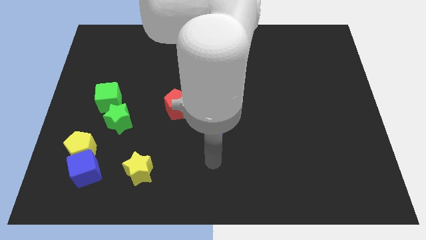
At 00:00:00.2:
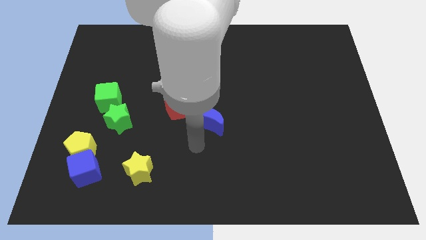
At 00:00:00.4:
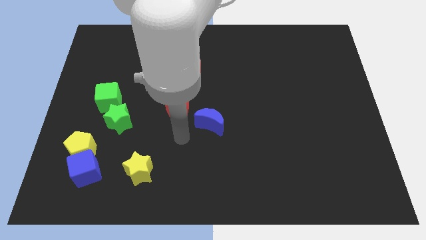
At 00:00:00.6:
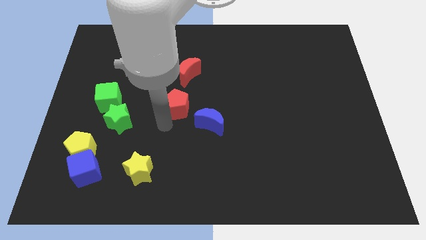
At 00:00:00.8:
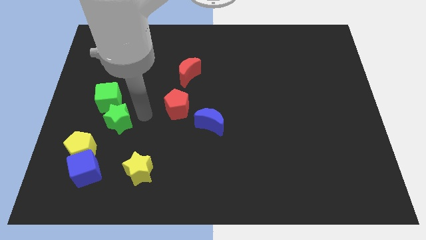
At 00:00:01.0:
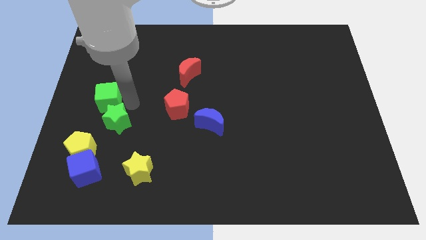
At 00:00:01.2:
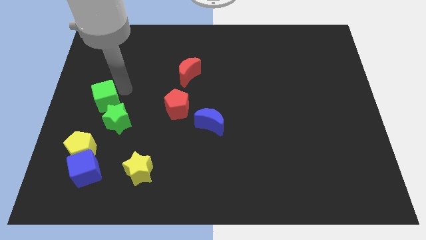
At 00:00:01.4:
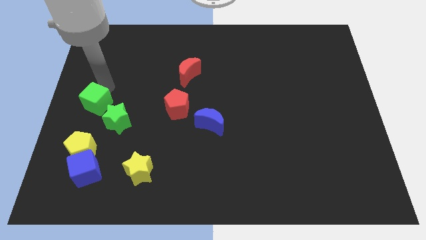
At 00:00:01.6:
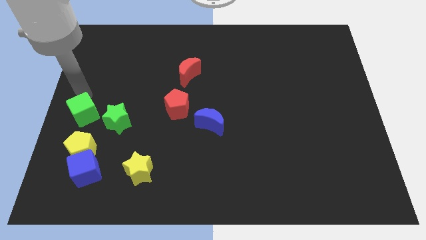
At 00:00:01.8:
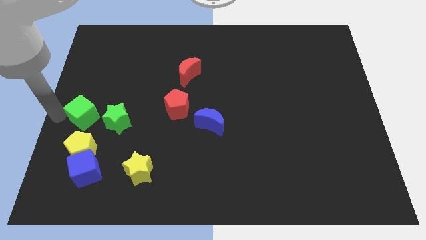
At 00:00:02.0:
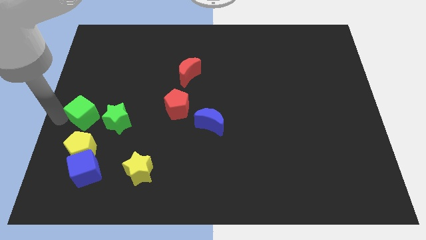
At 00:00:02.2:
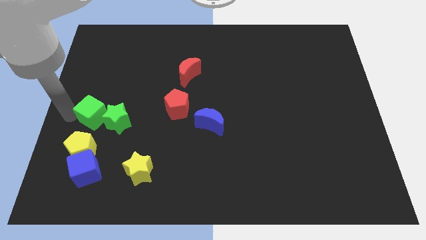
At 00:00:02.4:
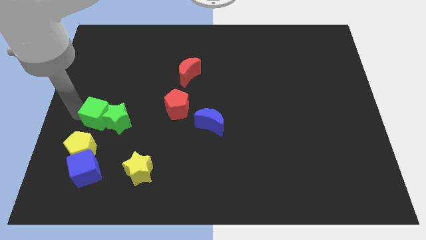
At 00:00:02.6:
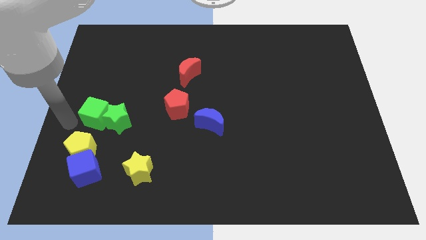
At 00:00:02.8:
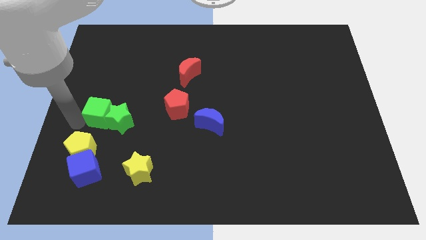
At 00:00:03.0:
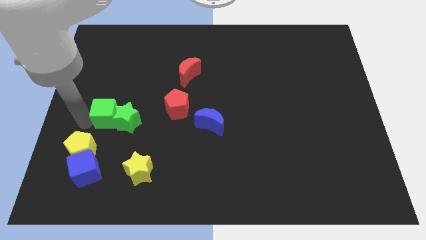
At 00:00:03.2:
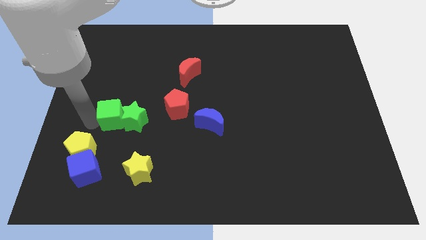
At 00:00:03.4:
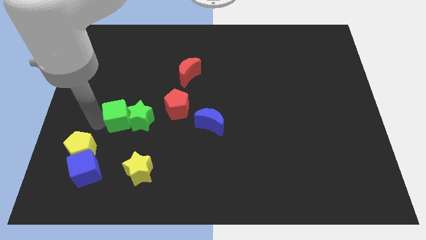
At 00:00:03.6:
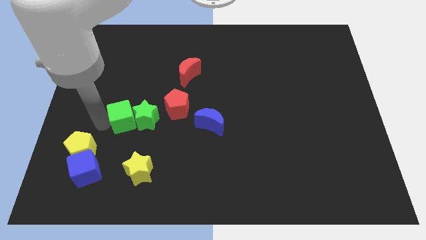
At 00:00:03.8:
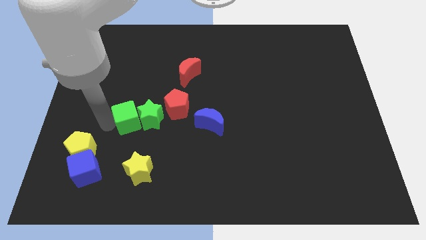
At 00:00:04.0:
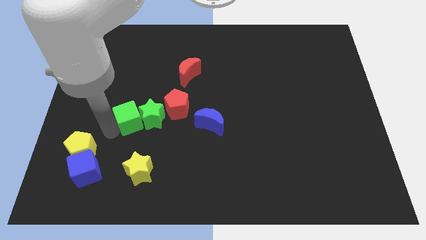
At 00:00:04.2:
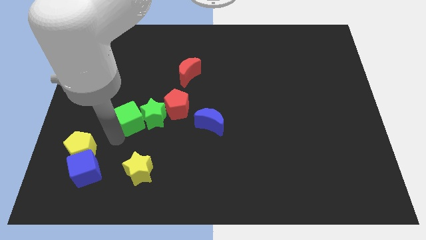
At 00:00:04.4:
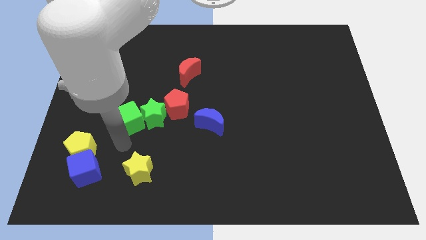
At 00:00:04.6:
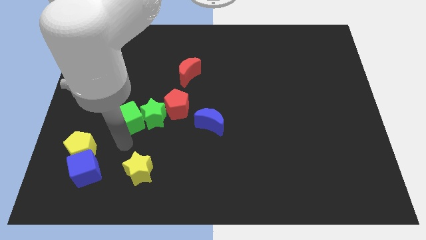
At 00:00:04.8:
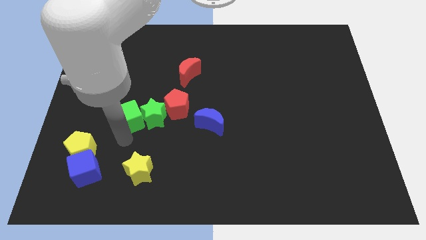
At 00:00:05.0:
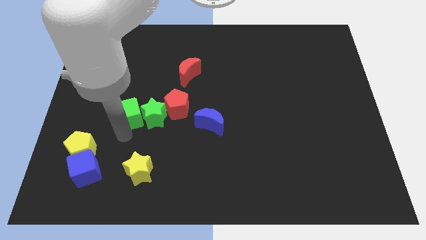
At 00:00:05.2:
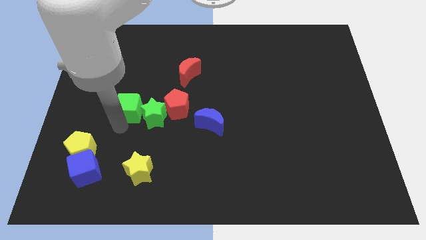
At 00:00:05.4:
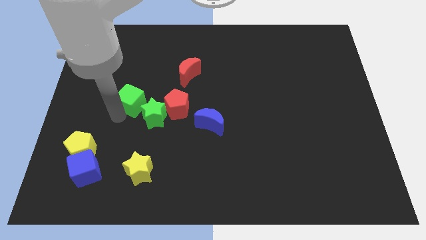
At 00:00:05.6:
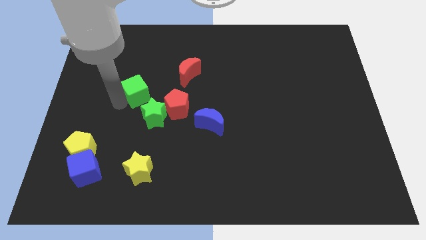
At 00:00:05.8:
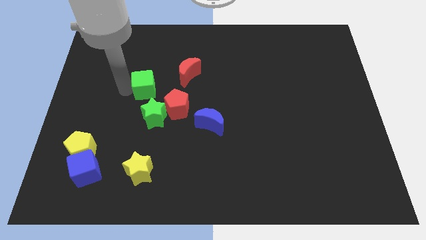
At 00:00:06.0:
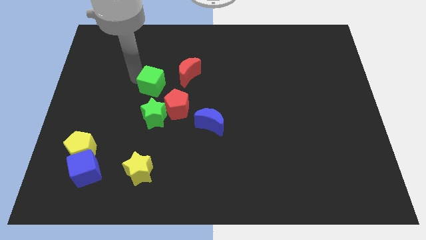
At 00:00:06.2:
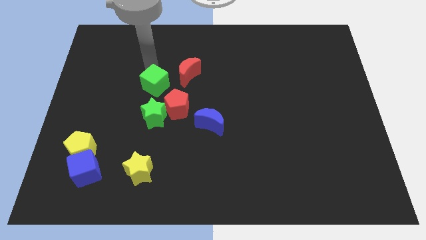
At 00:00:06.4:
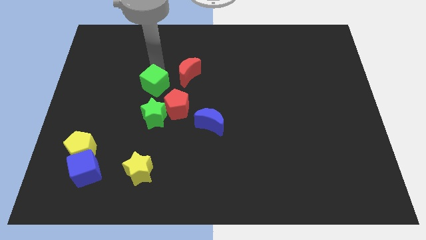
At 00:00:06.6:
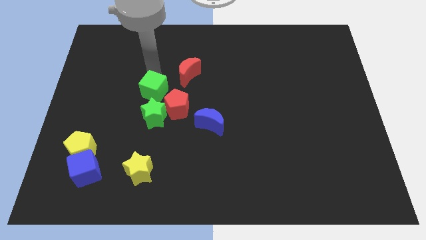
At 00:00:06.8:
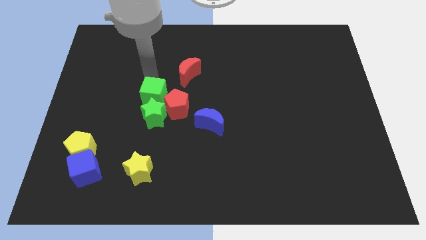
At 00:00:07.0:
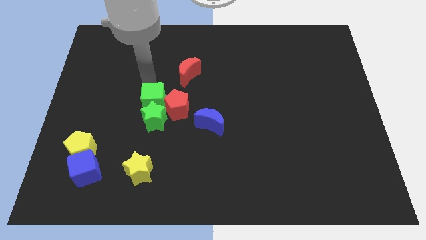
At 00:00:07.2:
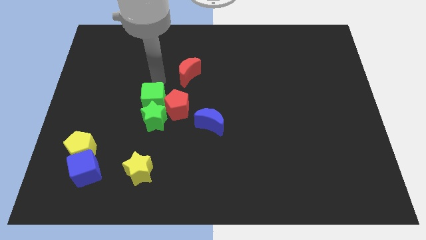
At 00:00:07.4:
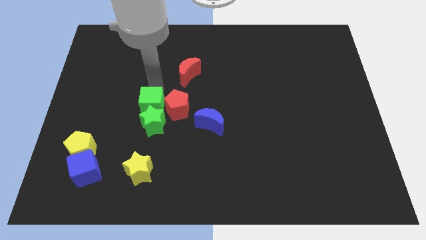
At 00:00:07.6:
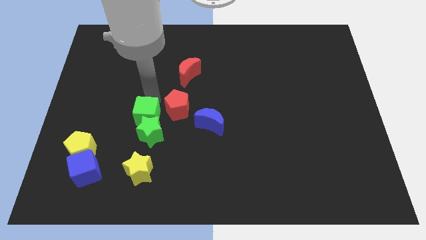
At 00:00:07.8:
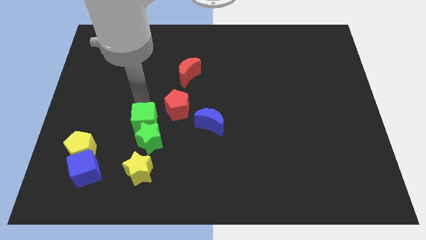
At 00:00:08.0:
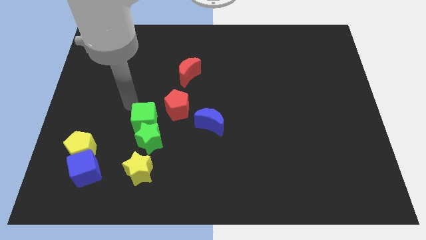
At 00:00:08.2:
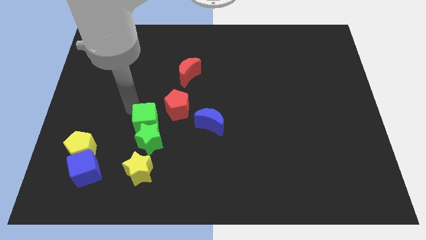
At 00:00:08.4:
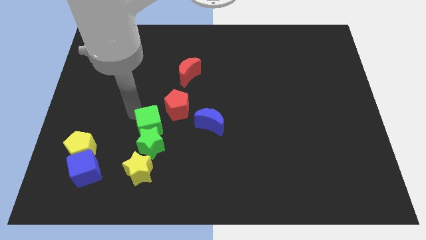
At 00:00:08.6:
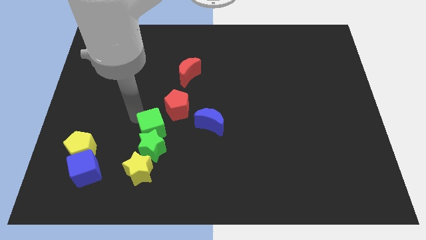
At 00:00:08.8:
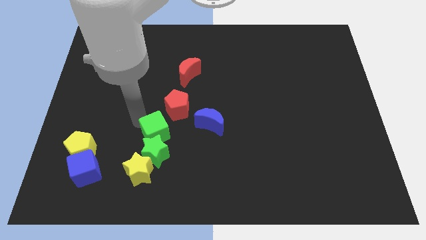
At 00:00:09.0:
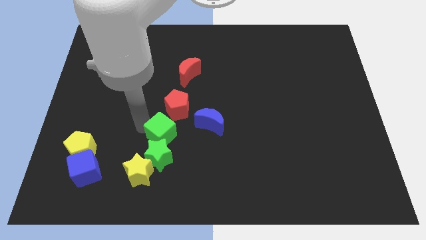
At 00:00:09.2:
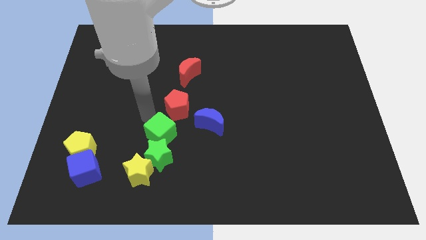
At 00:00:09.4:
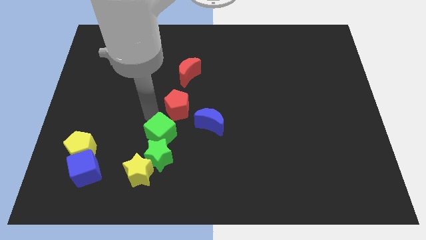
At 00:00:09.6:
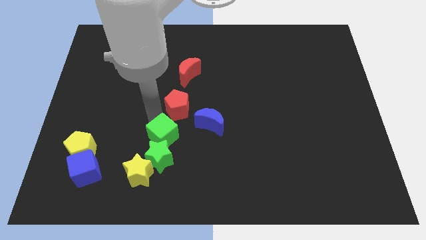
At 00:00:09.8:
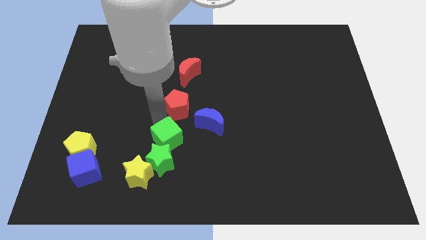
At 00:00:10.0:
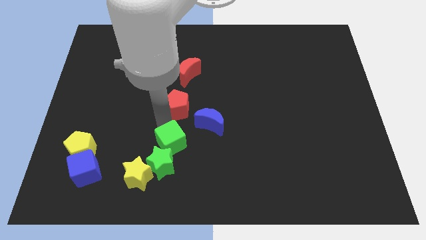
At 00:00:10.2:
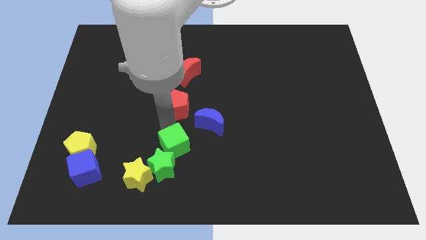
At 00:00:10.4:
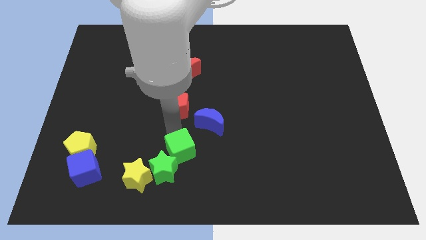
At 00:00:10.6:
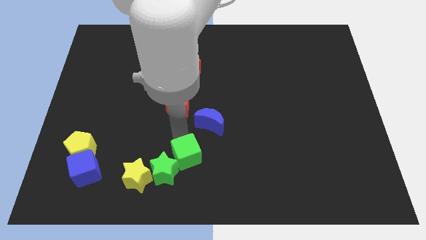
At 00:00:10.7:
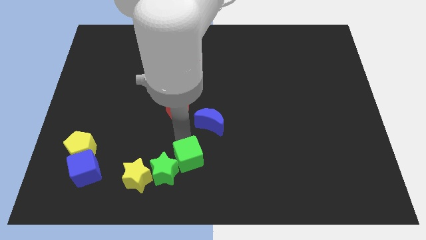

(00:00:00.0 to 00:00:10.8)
put the green cube to the bottom side

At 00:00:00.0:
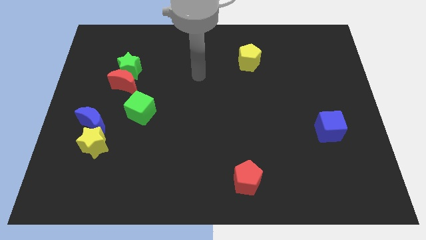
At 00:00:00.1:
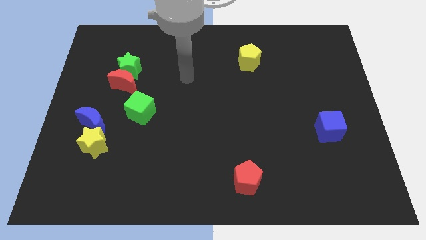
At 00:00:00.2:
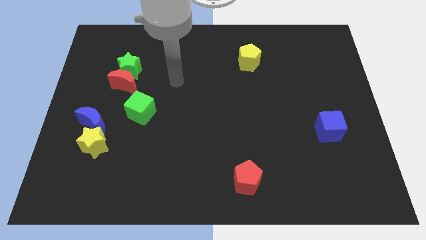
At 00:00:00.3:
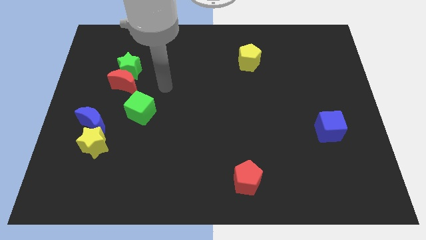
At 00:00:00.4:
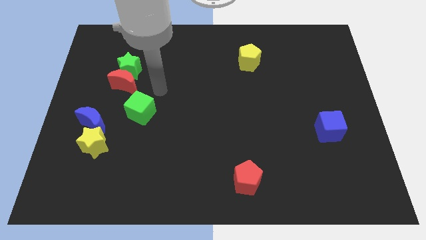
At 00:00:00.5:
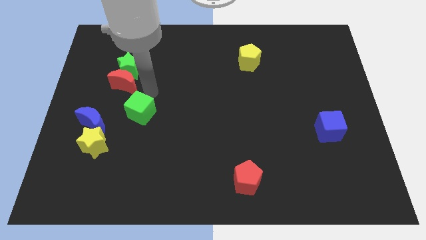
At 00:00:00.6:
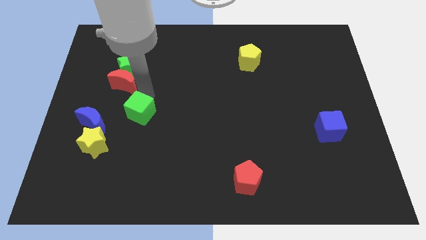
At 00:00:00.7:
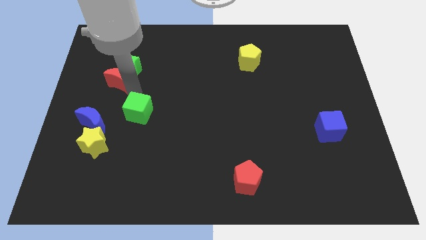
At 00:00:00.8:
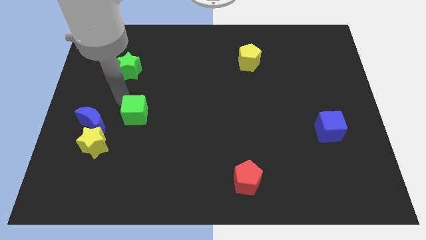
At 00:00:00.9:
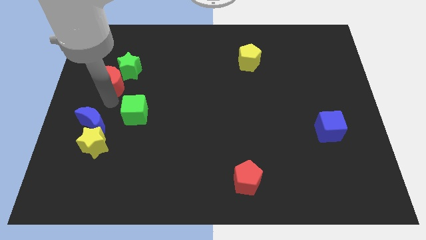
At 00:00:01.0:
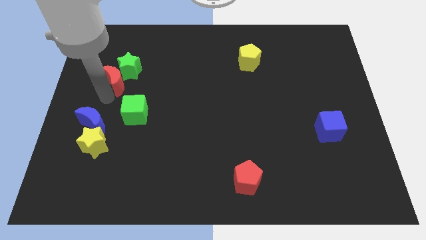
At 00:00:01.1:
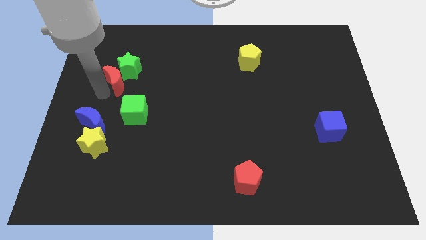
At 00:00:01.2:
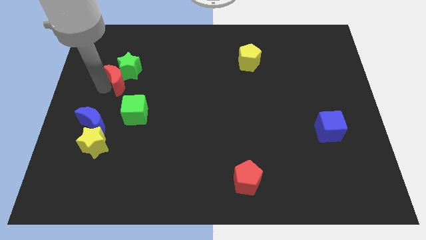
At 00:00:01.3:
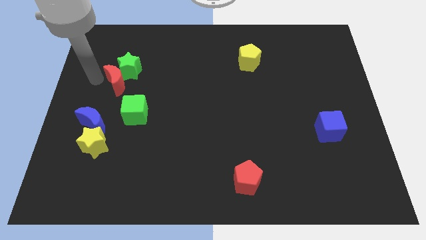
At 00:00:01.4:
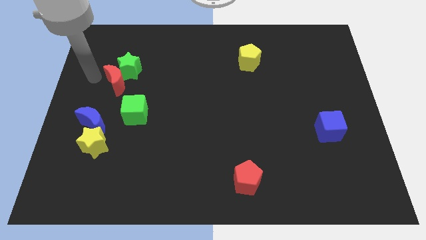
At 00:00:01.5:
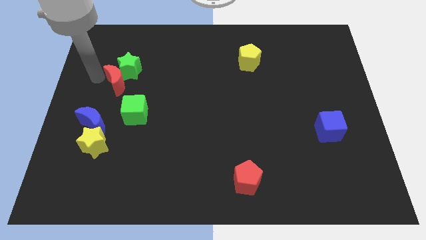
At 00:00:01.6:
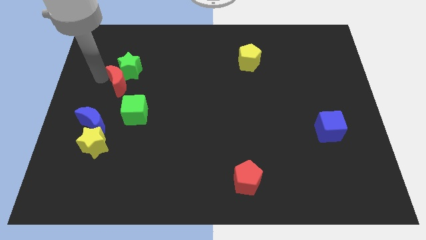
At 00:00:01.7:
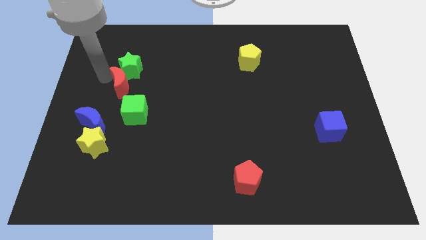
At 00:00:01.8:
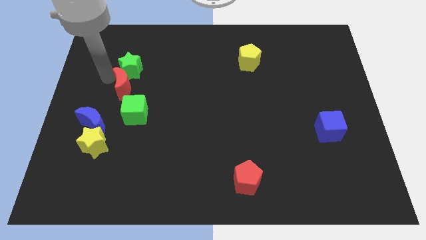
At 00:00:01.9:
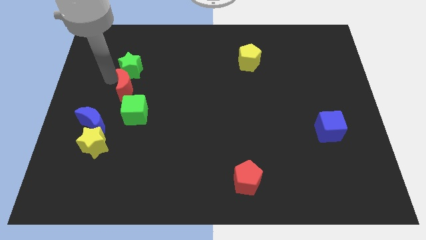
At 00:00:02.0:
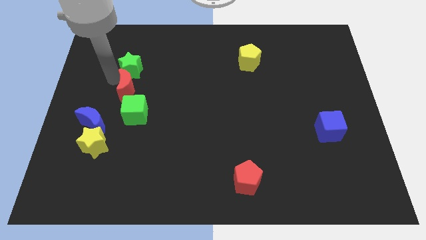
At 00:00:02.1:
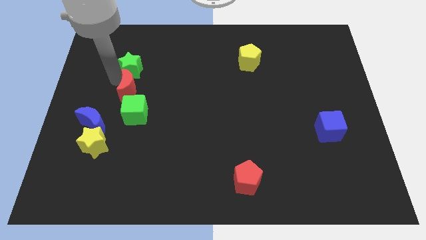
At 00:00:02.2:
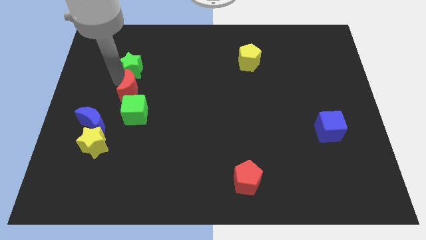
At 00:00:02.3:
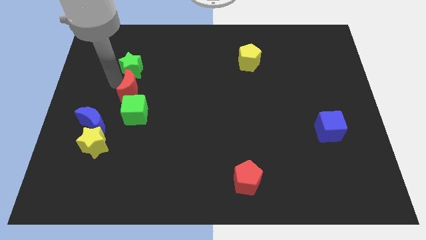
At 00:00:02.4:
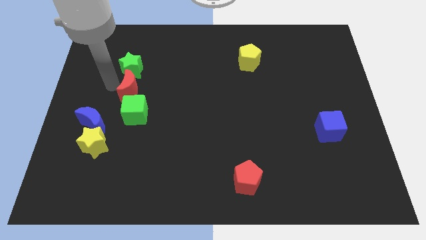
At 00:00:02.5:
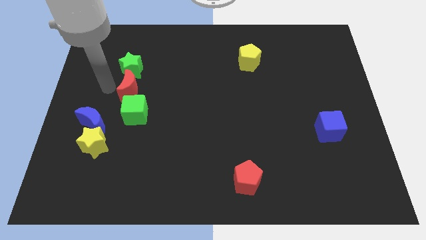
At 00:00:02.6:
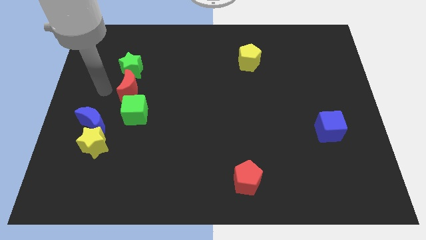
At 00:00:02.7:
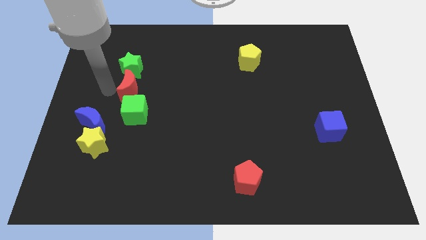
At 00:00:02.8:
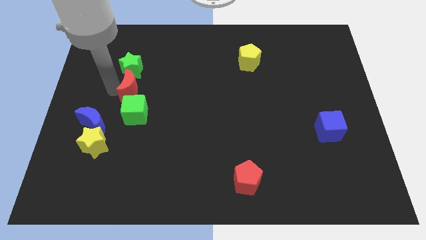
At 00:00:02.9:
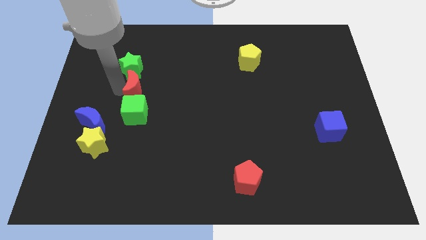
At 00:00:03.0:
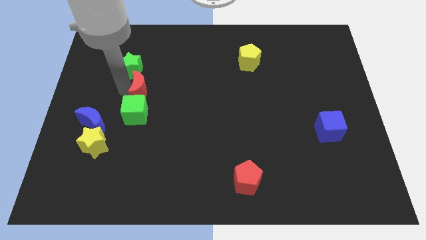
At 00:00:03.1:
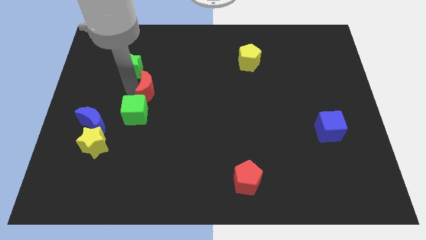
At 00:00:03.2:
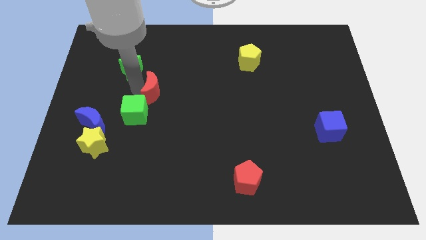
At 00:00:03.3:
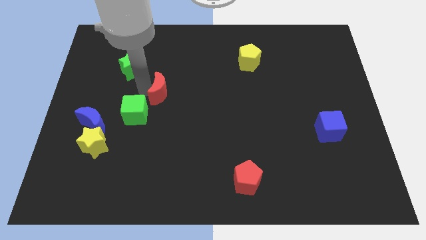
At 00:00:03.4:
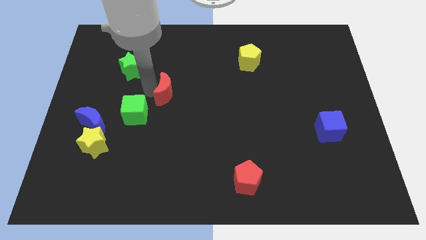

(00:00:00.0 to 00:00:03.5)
push the red moon to the center of the board
